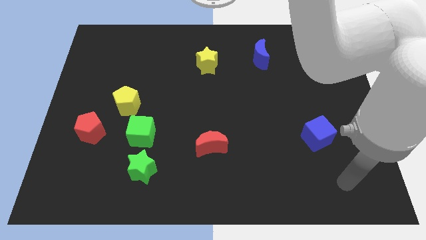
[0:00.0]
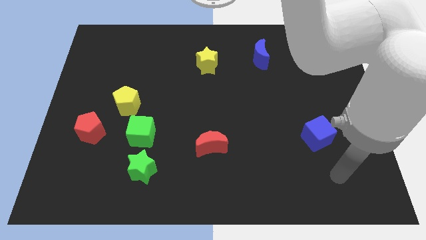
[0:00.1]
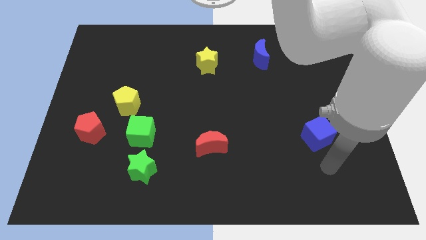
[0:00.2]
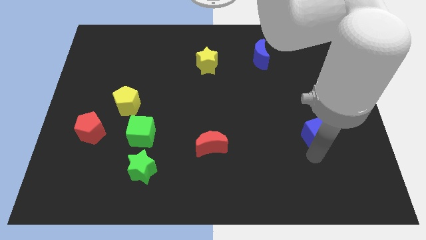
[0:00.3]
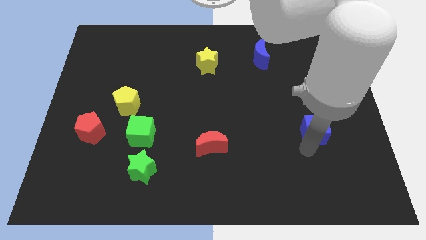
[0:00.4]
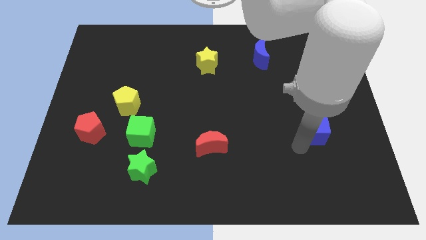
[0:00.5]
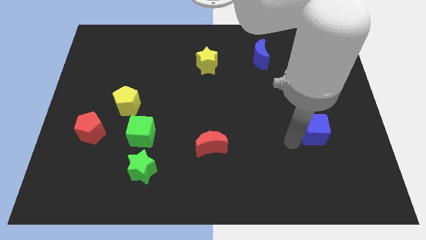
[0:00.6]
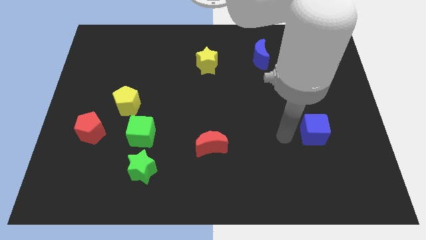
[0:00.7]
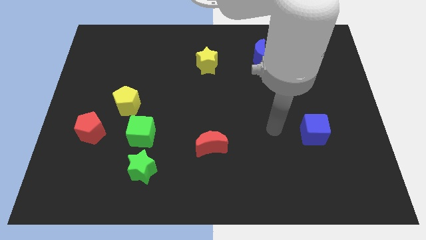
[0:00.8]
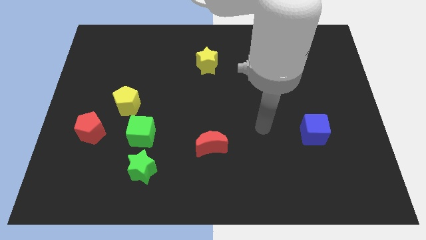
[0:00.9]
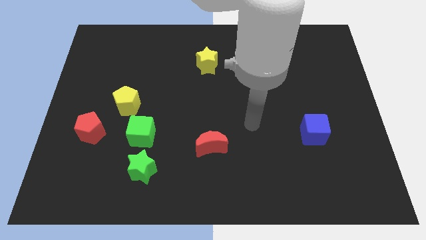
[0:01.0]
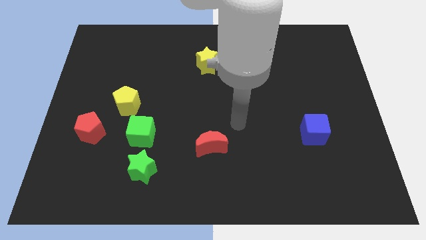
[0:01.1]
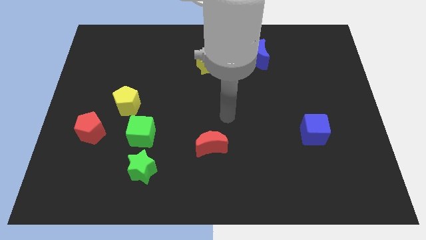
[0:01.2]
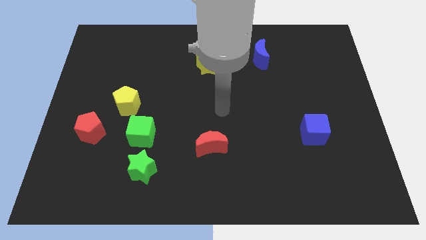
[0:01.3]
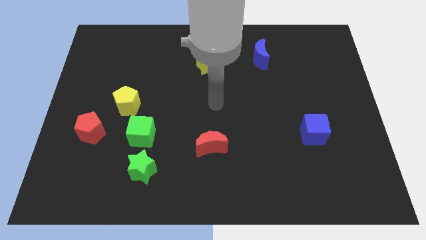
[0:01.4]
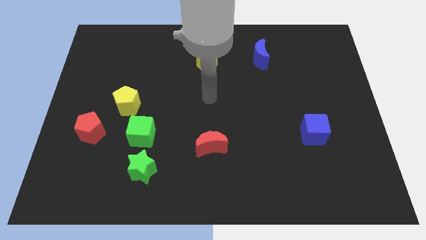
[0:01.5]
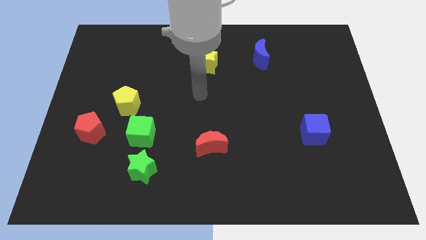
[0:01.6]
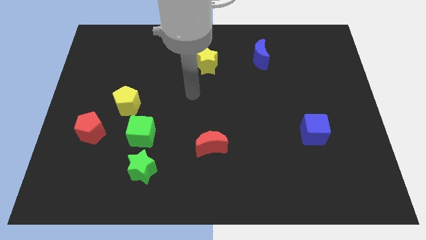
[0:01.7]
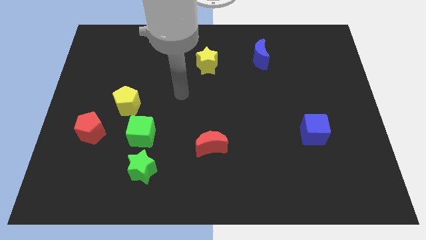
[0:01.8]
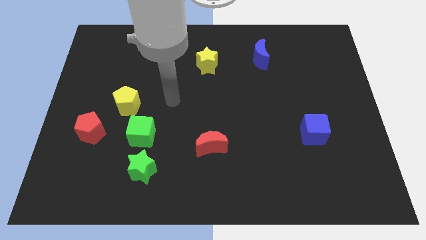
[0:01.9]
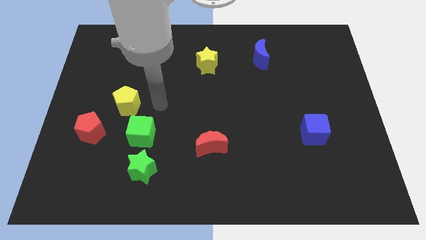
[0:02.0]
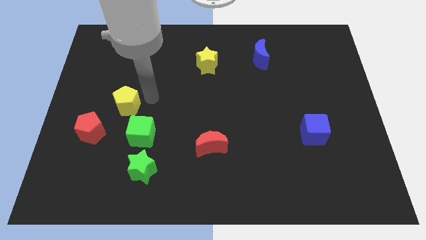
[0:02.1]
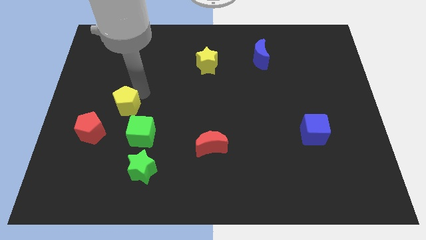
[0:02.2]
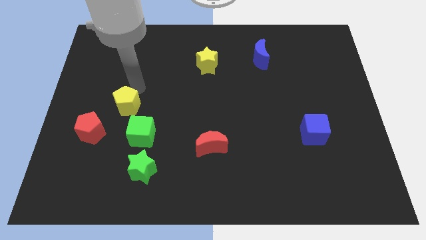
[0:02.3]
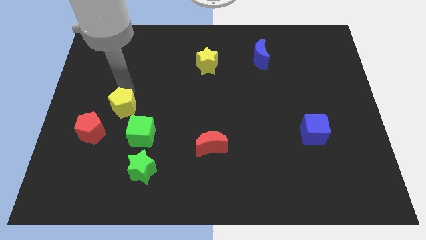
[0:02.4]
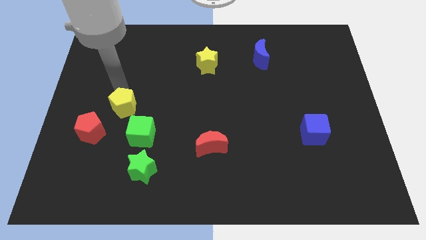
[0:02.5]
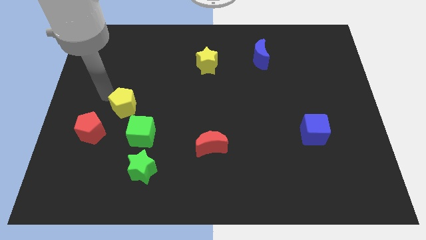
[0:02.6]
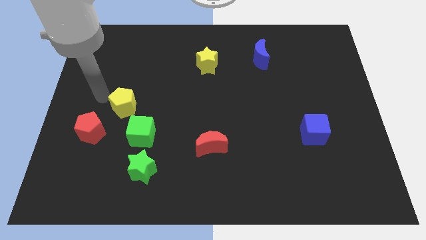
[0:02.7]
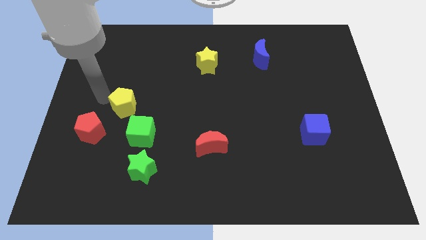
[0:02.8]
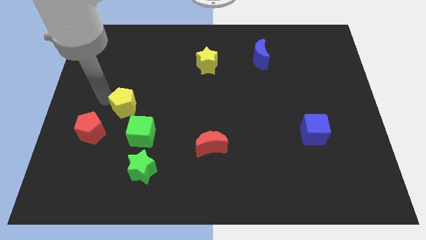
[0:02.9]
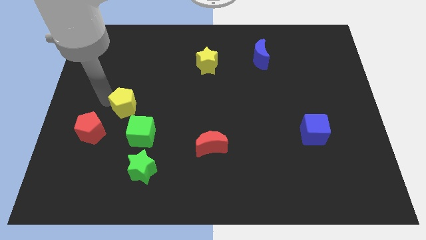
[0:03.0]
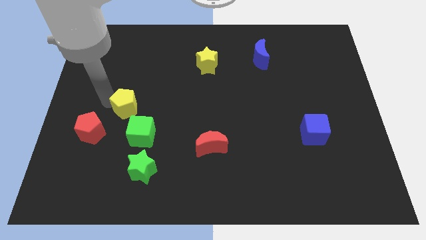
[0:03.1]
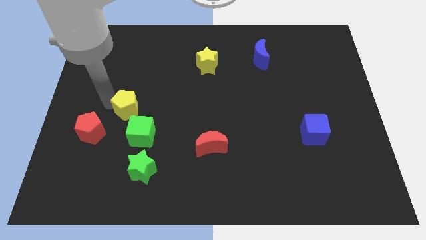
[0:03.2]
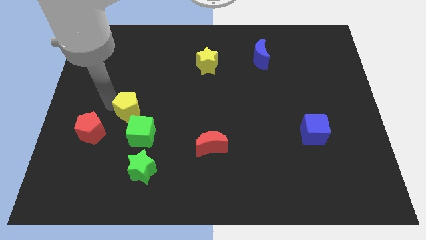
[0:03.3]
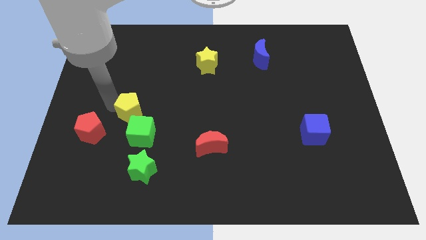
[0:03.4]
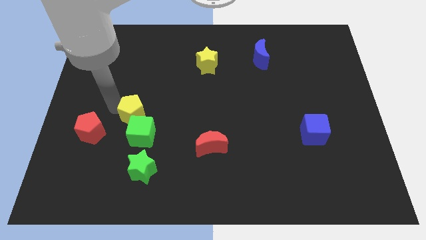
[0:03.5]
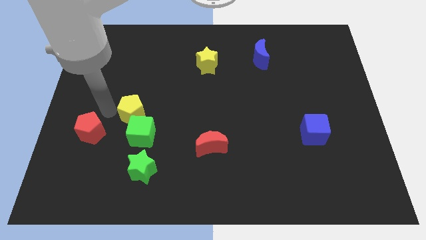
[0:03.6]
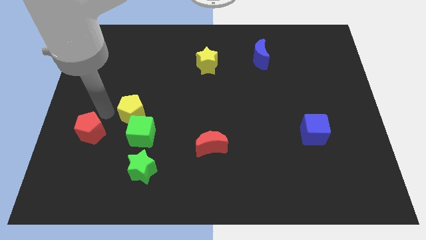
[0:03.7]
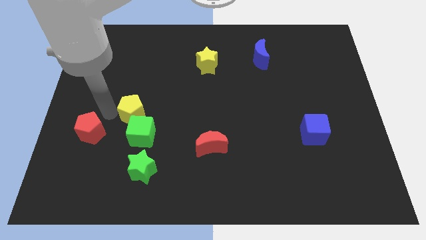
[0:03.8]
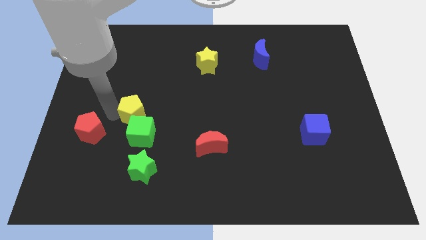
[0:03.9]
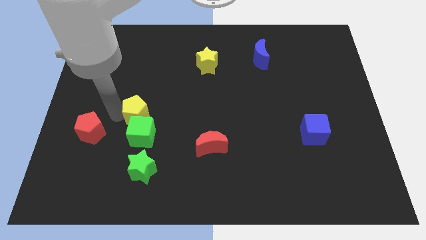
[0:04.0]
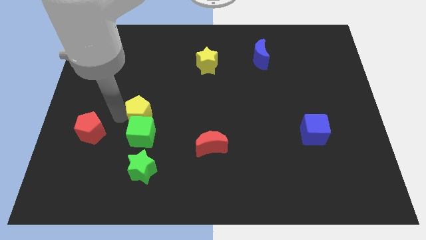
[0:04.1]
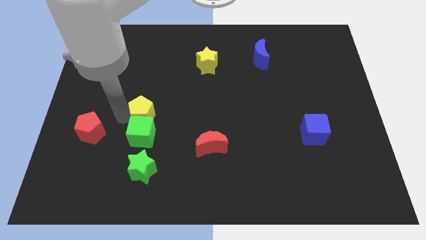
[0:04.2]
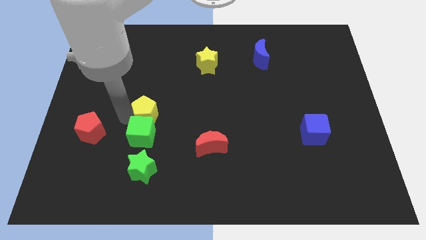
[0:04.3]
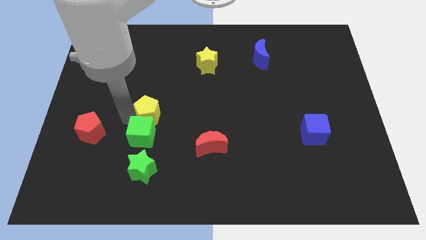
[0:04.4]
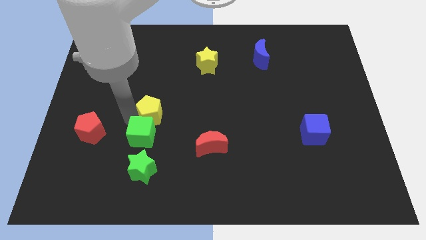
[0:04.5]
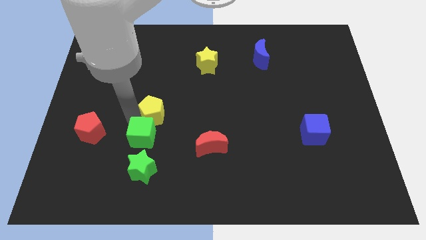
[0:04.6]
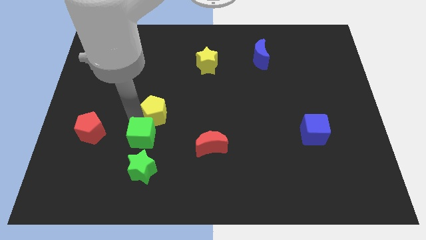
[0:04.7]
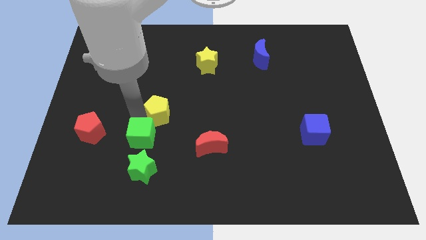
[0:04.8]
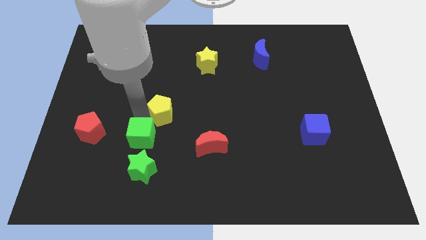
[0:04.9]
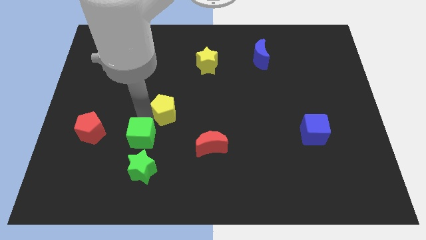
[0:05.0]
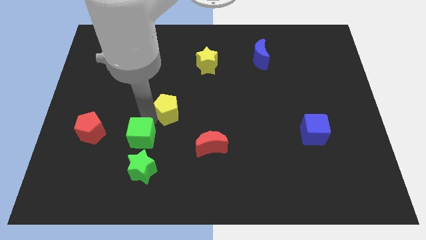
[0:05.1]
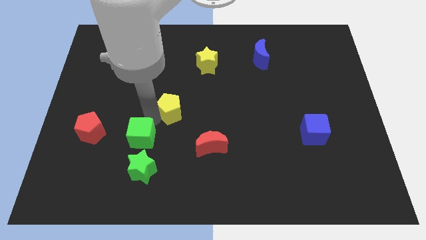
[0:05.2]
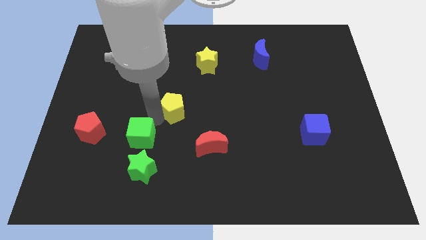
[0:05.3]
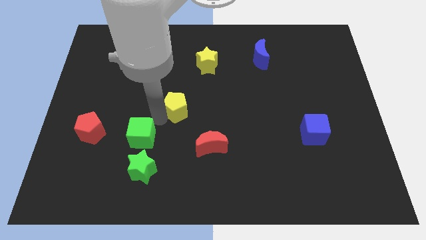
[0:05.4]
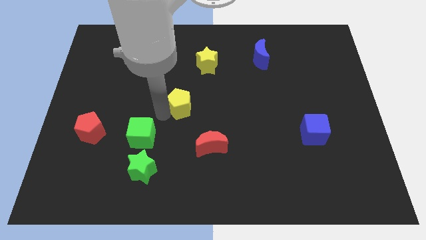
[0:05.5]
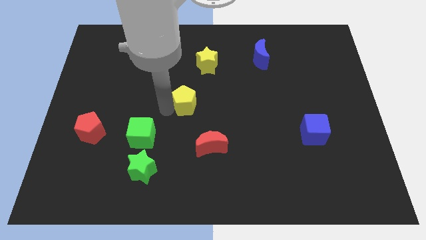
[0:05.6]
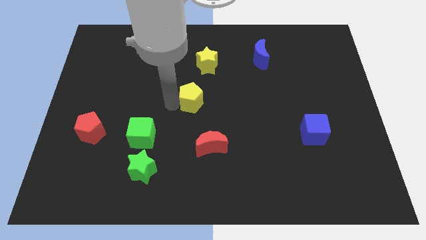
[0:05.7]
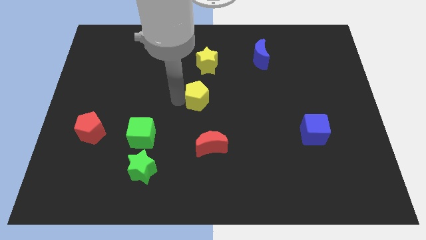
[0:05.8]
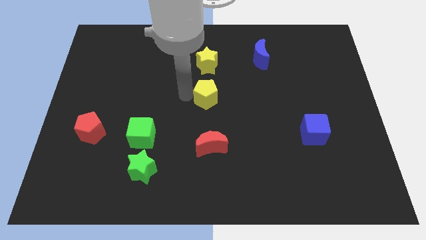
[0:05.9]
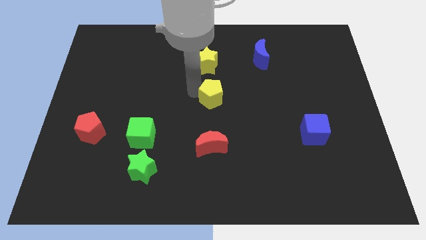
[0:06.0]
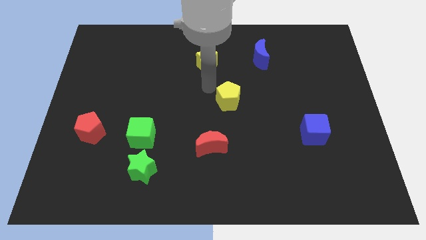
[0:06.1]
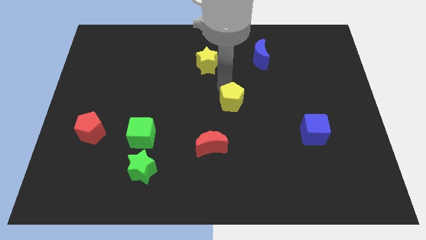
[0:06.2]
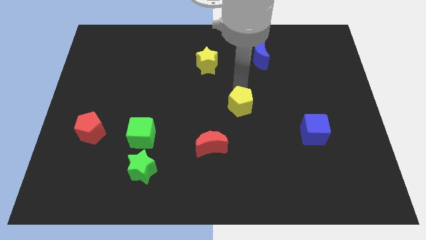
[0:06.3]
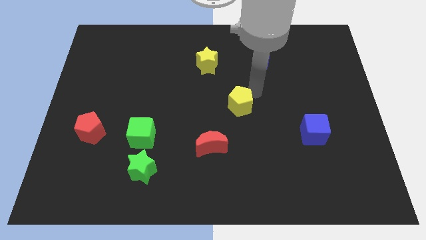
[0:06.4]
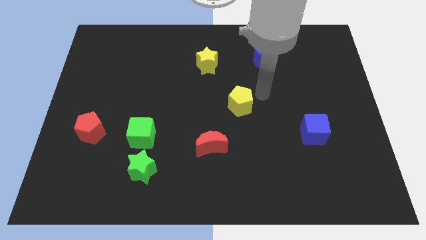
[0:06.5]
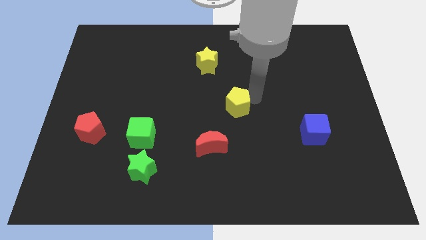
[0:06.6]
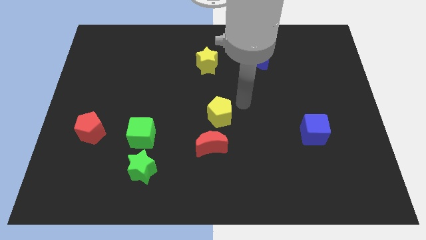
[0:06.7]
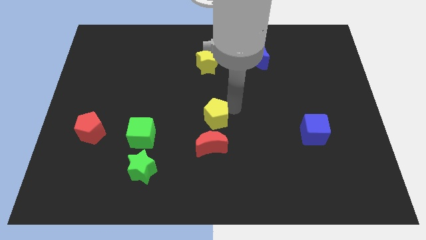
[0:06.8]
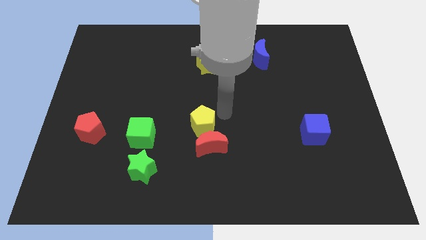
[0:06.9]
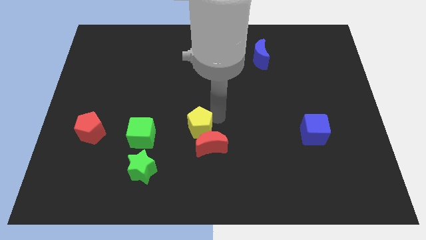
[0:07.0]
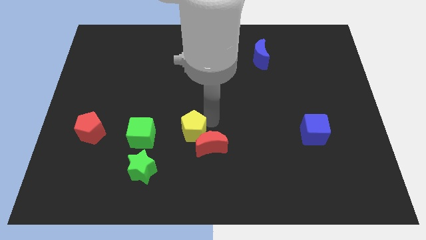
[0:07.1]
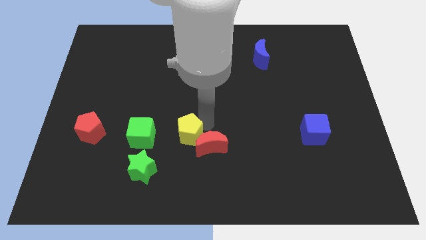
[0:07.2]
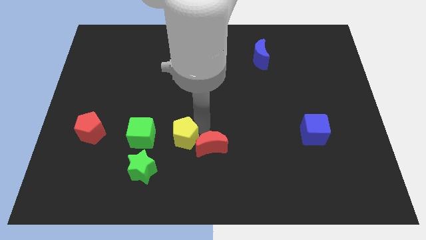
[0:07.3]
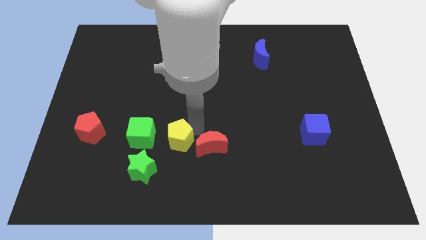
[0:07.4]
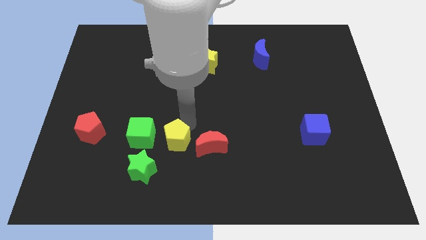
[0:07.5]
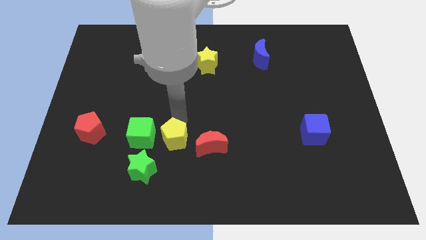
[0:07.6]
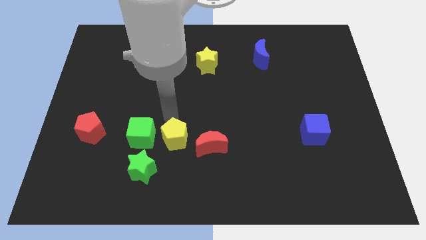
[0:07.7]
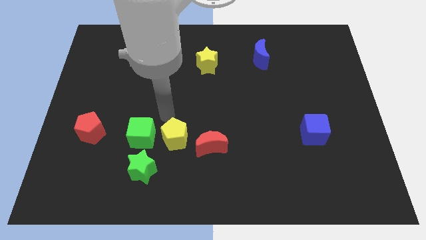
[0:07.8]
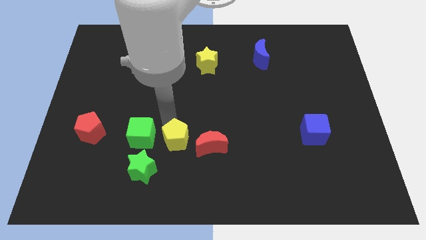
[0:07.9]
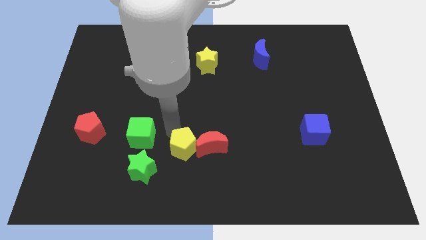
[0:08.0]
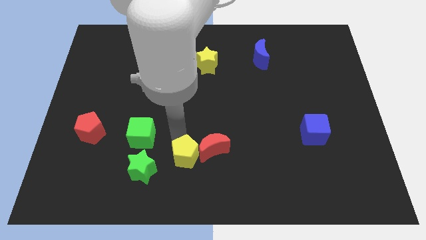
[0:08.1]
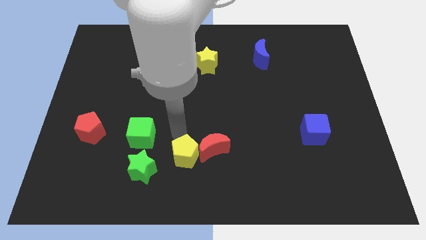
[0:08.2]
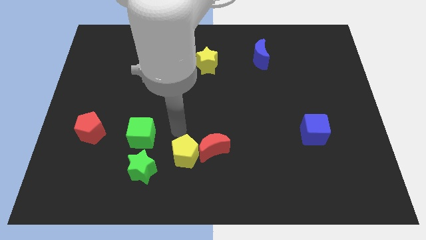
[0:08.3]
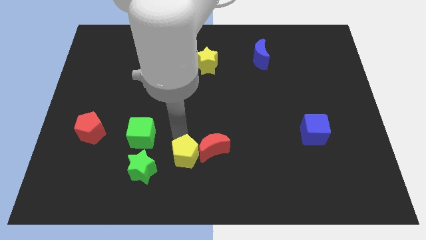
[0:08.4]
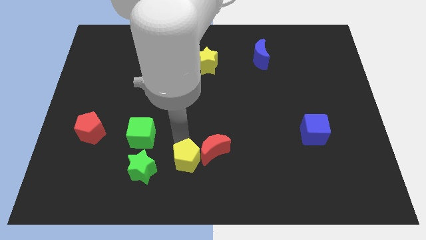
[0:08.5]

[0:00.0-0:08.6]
move the yellow pentagon to the bottom

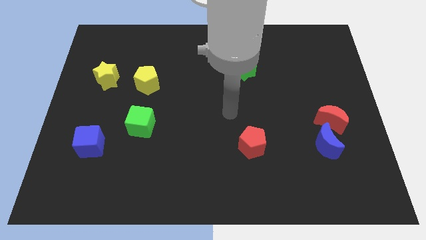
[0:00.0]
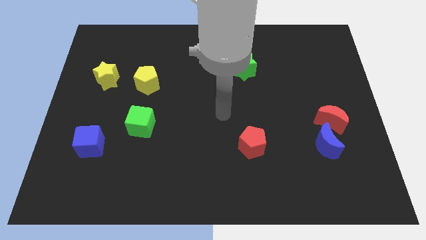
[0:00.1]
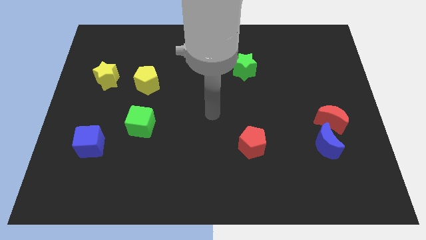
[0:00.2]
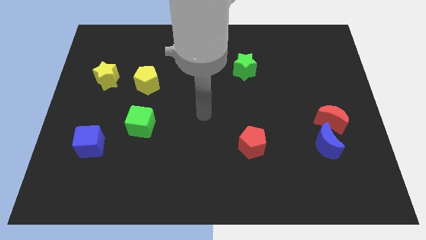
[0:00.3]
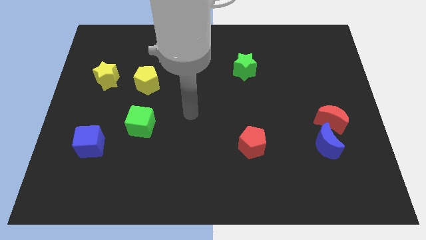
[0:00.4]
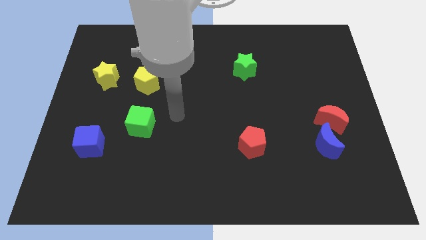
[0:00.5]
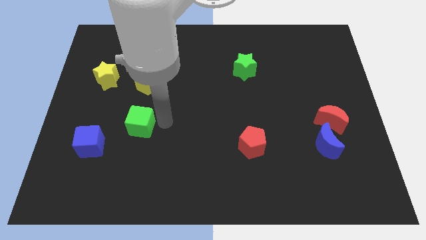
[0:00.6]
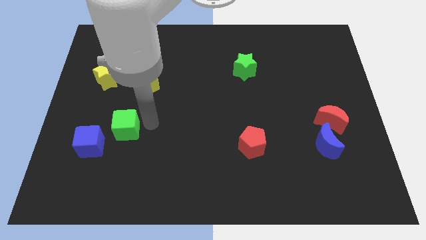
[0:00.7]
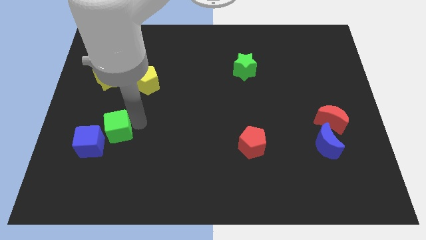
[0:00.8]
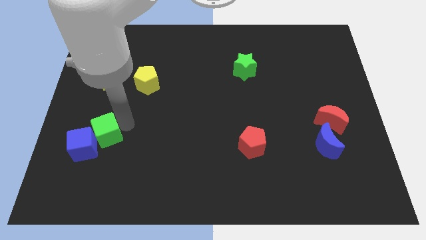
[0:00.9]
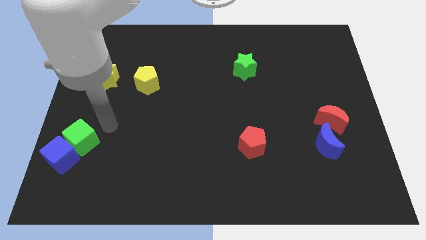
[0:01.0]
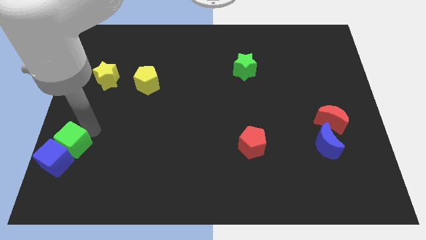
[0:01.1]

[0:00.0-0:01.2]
move the blue cube to the bottom left of the board
